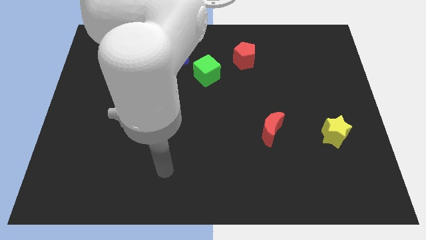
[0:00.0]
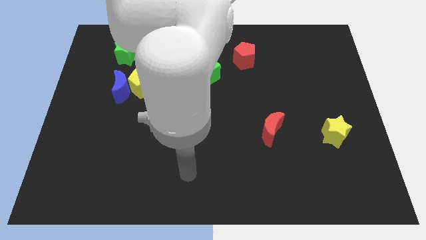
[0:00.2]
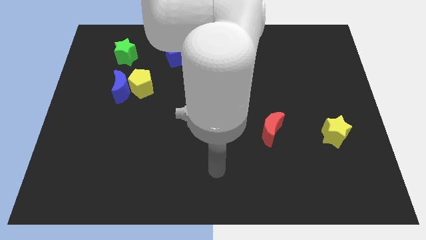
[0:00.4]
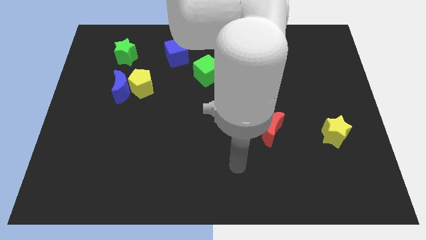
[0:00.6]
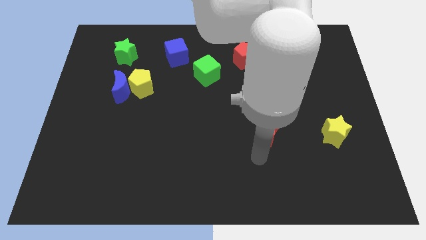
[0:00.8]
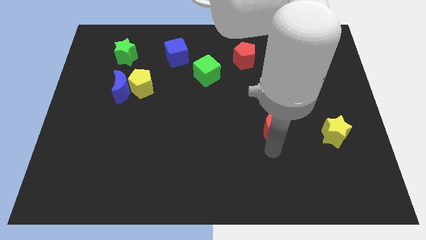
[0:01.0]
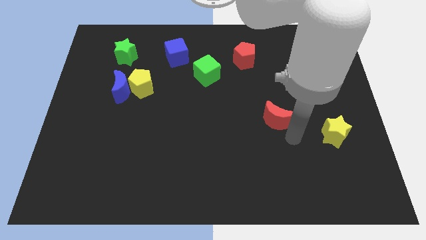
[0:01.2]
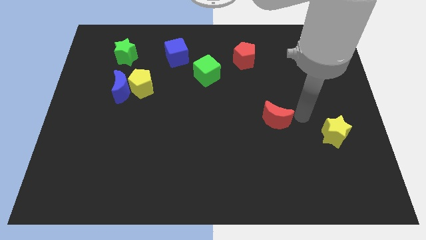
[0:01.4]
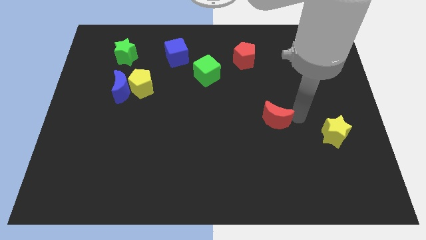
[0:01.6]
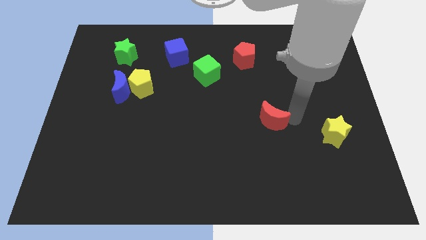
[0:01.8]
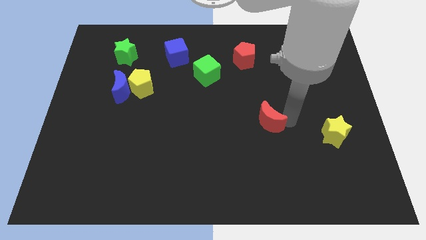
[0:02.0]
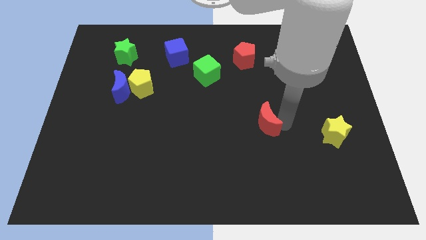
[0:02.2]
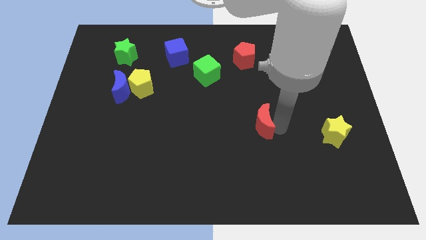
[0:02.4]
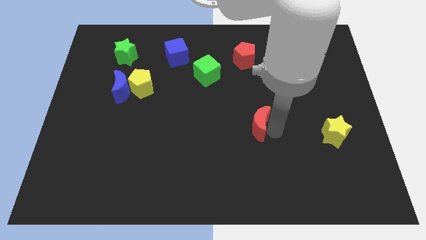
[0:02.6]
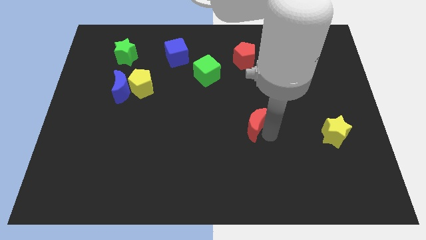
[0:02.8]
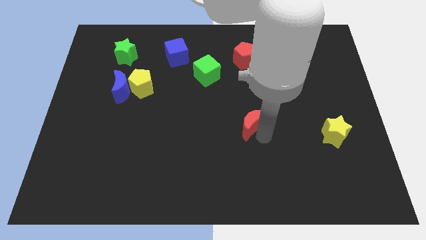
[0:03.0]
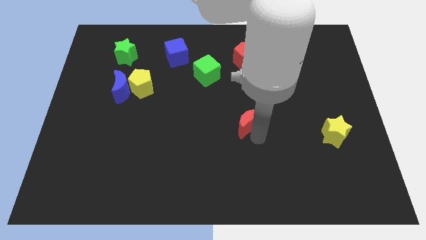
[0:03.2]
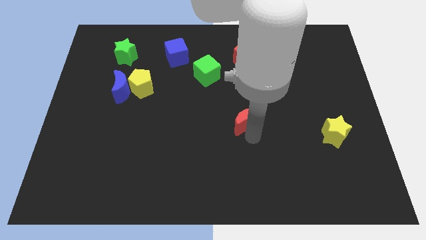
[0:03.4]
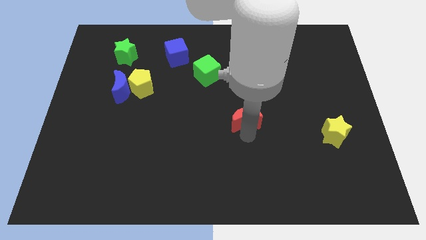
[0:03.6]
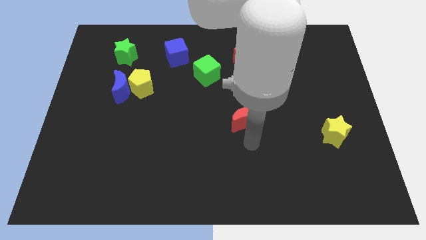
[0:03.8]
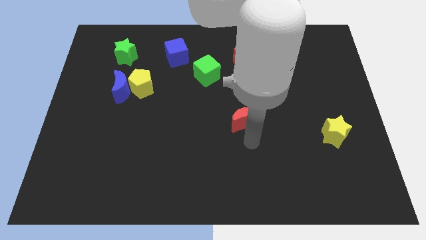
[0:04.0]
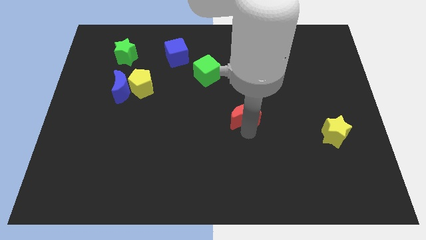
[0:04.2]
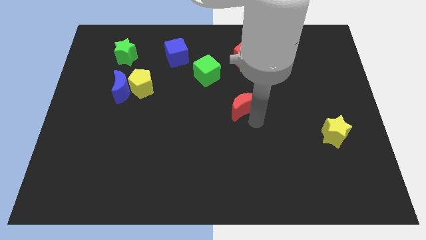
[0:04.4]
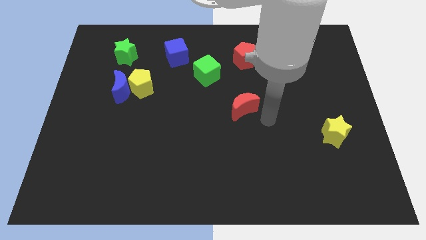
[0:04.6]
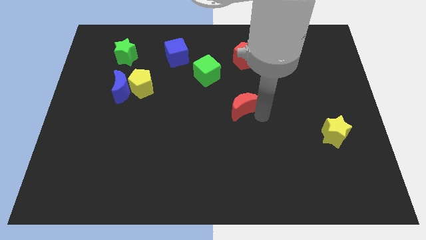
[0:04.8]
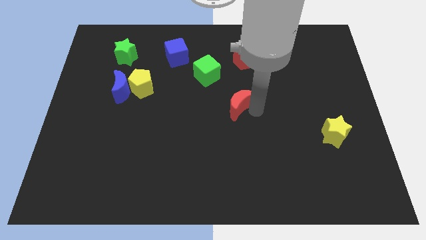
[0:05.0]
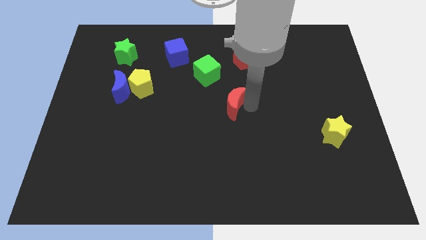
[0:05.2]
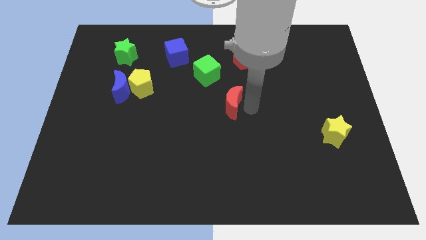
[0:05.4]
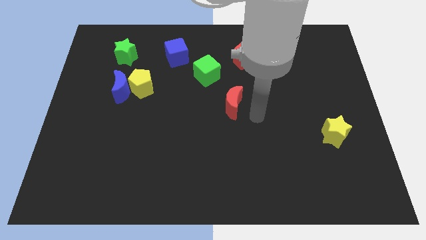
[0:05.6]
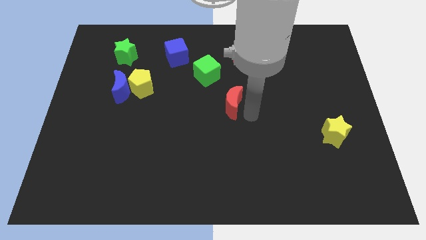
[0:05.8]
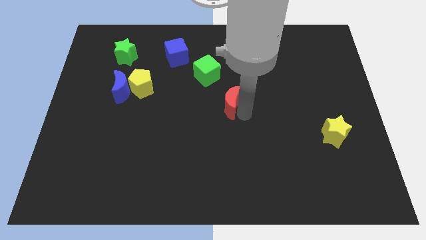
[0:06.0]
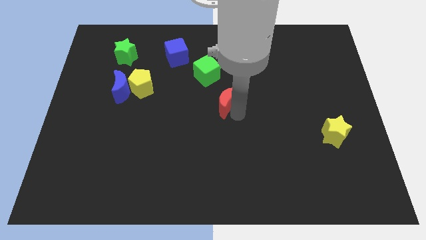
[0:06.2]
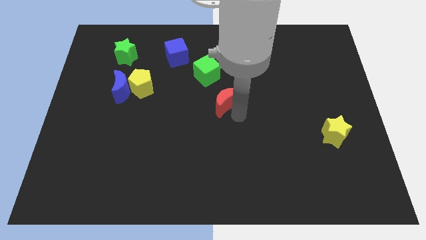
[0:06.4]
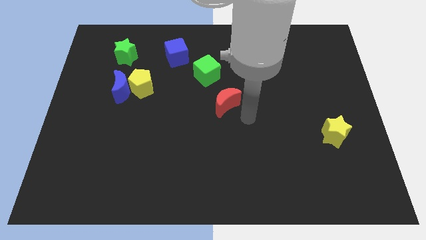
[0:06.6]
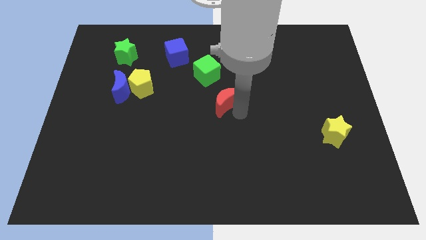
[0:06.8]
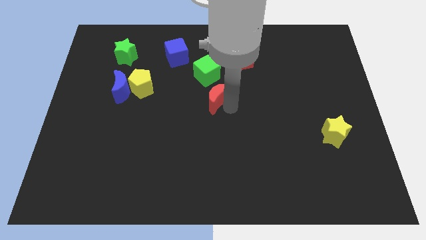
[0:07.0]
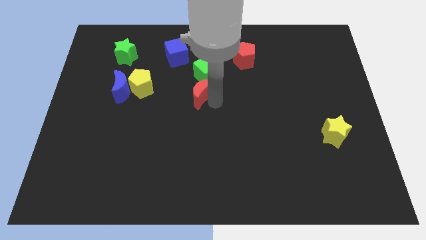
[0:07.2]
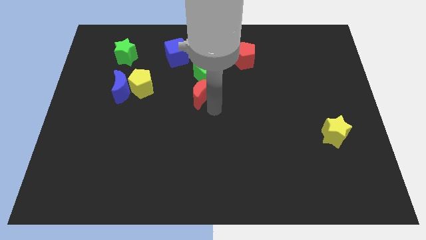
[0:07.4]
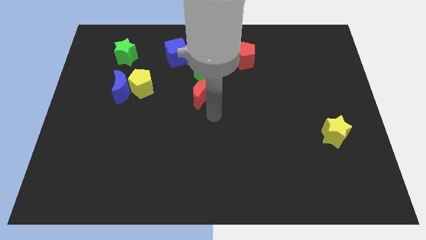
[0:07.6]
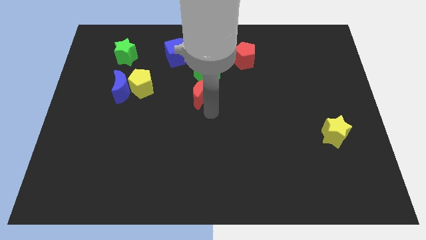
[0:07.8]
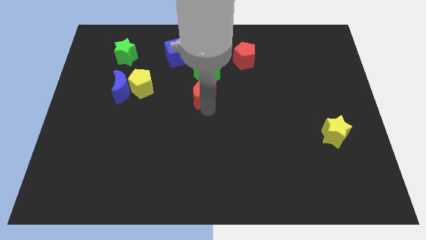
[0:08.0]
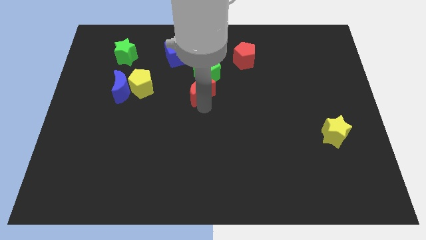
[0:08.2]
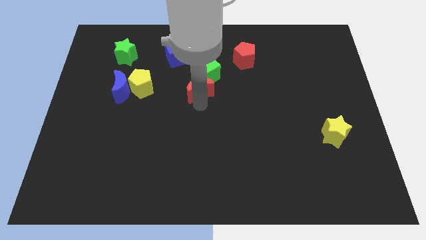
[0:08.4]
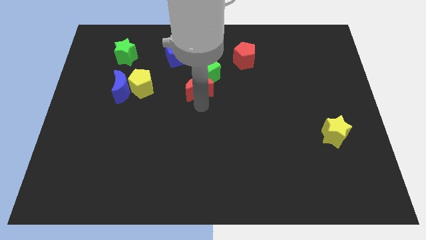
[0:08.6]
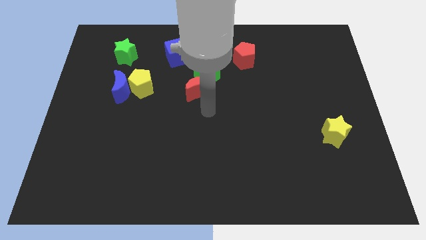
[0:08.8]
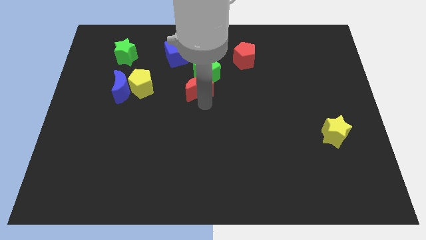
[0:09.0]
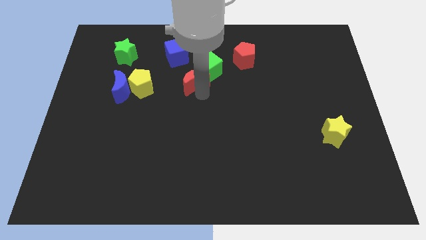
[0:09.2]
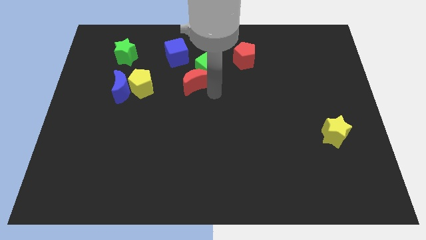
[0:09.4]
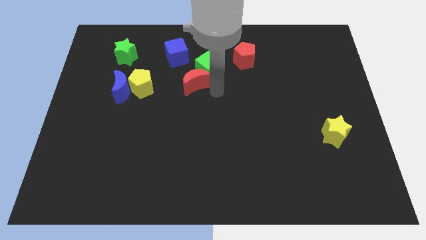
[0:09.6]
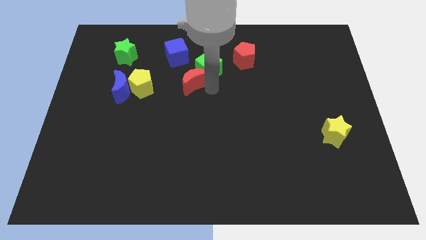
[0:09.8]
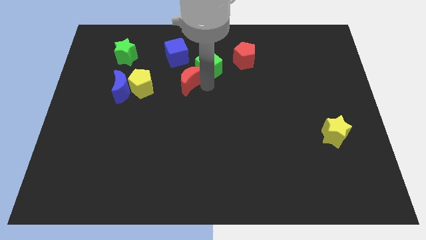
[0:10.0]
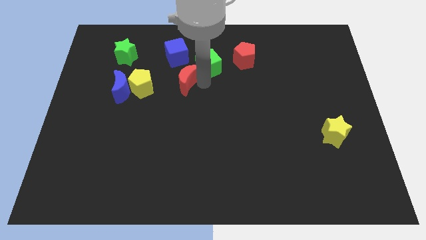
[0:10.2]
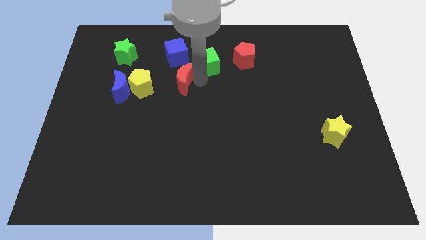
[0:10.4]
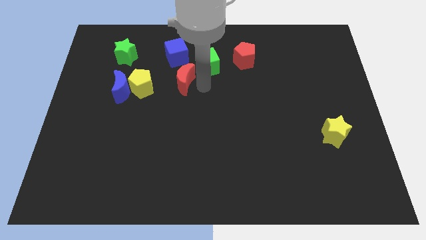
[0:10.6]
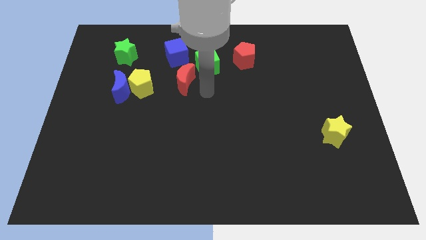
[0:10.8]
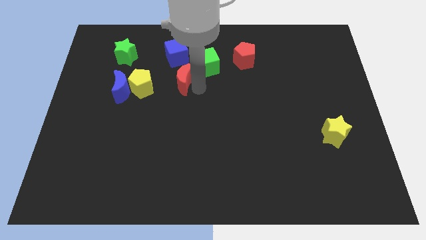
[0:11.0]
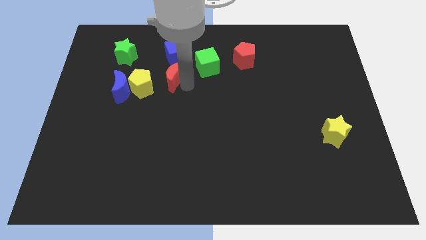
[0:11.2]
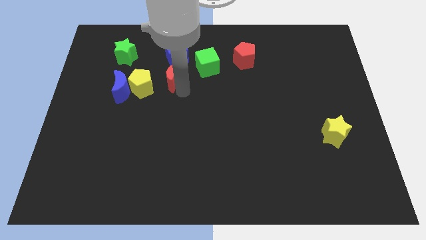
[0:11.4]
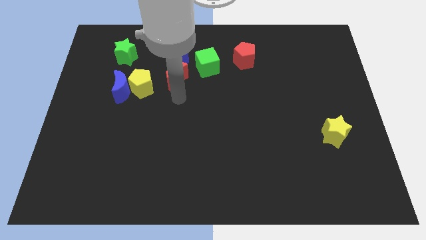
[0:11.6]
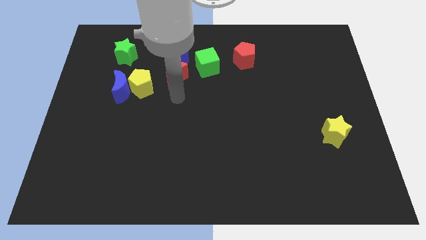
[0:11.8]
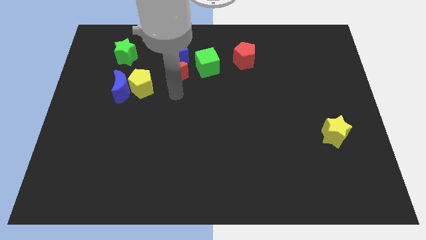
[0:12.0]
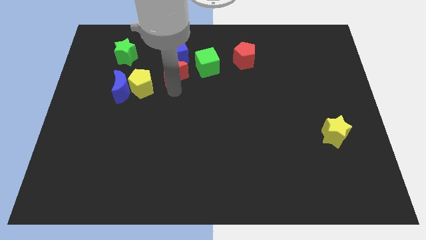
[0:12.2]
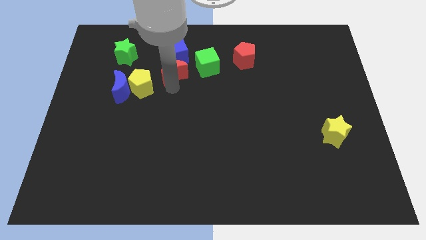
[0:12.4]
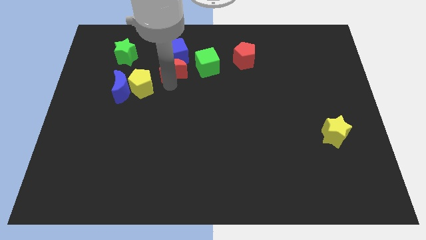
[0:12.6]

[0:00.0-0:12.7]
move the red moon to the blue cube

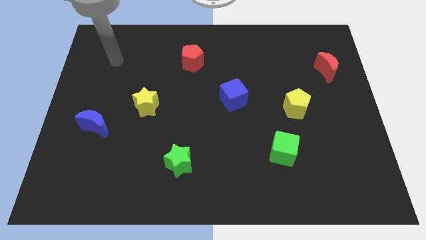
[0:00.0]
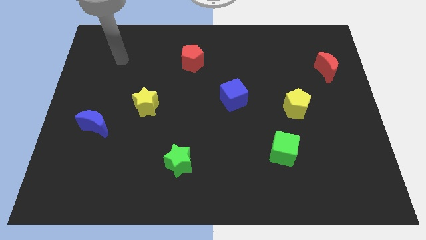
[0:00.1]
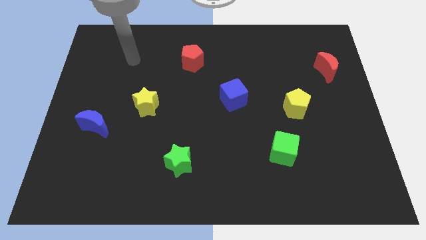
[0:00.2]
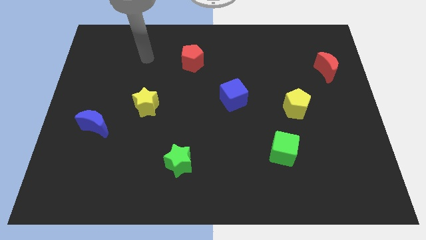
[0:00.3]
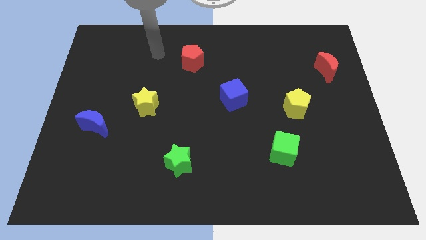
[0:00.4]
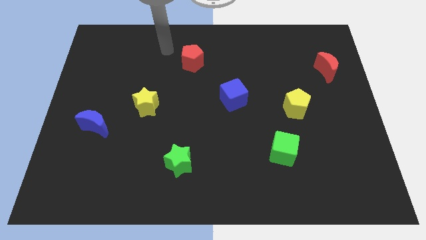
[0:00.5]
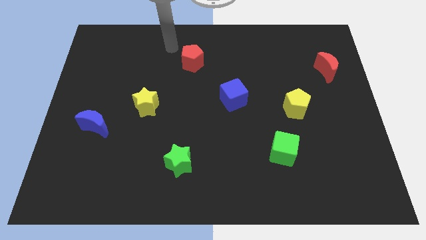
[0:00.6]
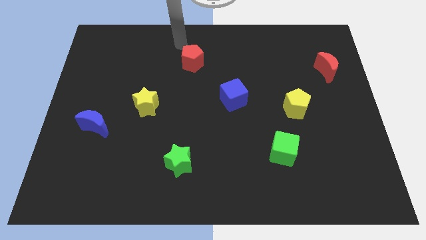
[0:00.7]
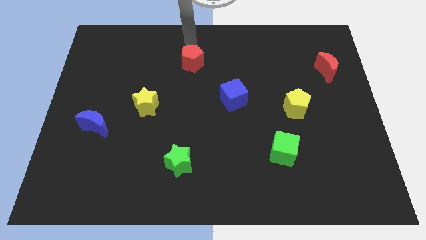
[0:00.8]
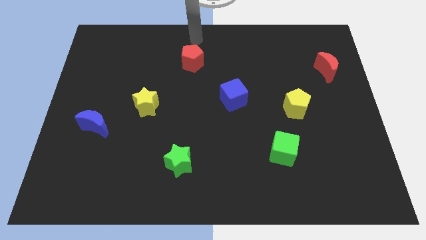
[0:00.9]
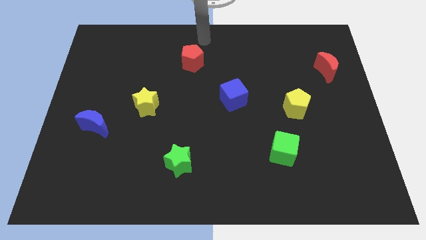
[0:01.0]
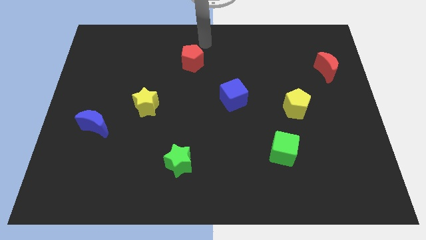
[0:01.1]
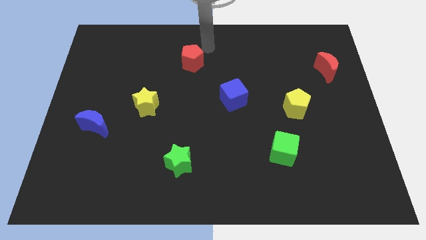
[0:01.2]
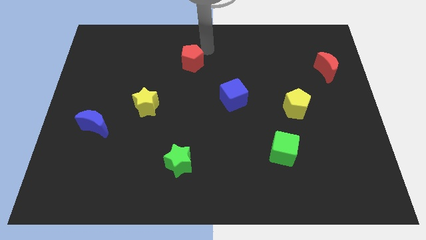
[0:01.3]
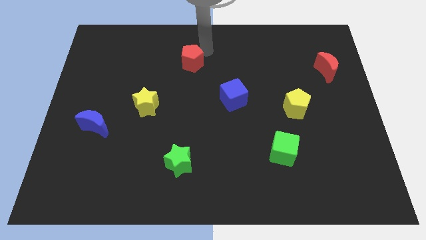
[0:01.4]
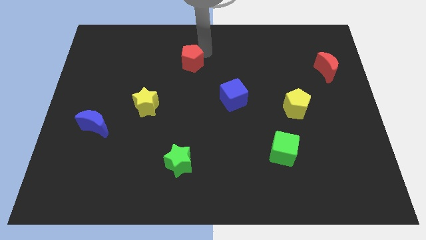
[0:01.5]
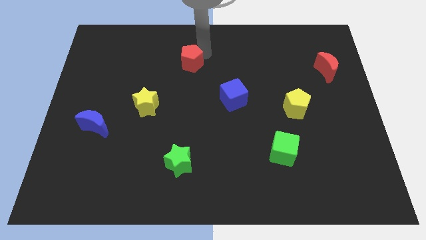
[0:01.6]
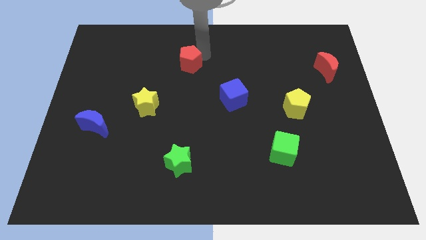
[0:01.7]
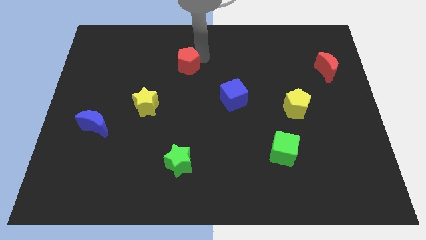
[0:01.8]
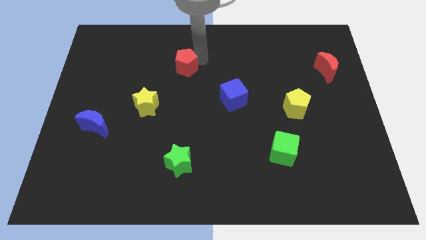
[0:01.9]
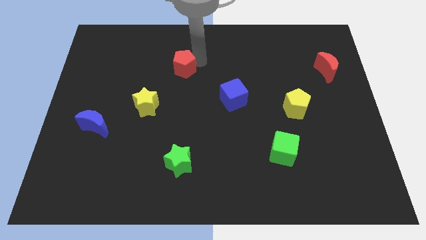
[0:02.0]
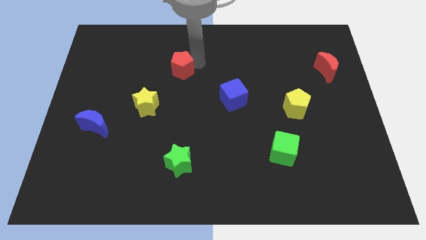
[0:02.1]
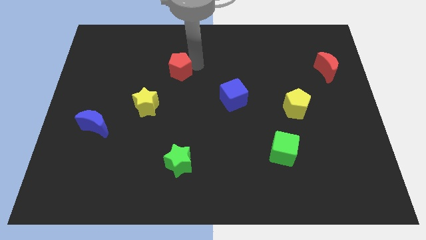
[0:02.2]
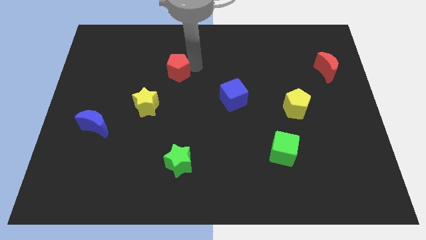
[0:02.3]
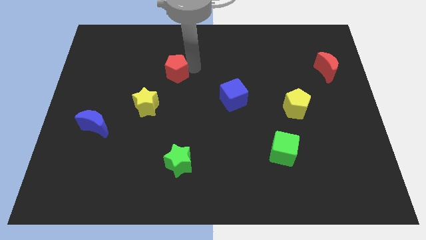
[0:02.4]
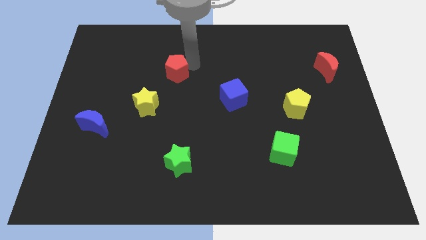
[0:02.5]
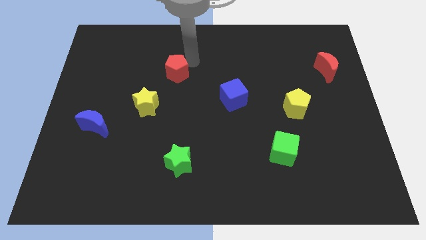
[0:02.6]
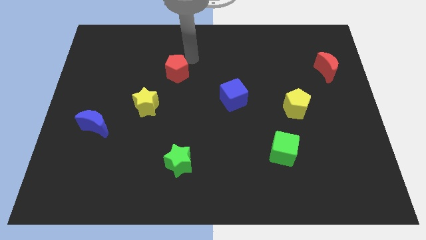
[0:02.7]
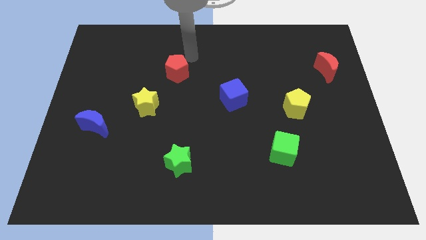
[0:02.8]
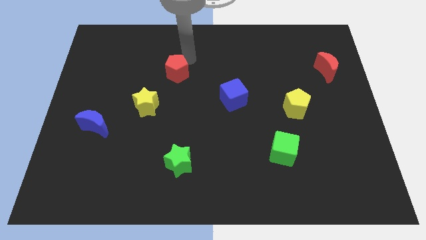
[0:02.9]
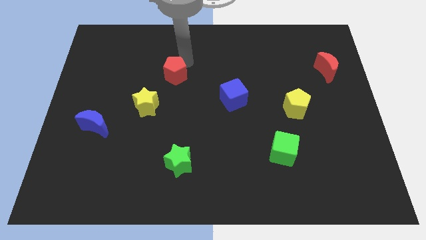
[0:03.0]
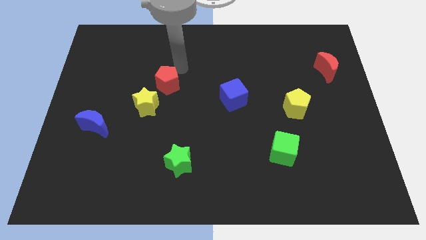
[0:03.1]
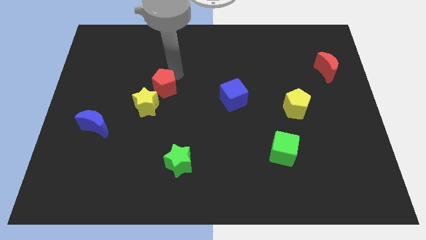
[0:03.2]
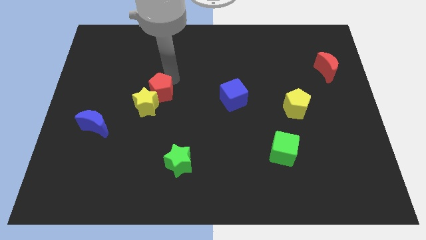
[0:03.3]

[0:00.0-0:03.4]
slide the red pentagon close to the yellow star
